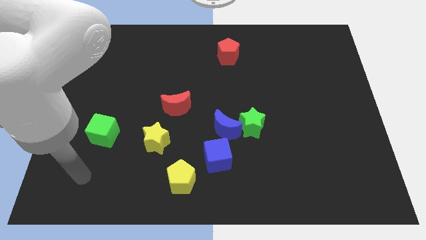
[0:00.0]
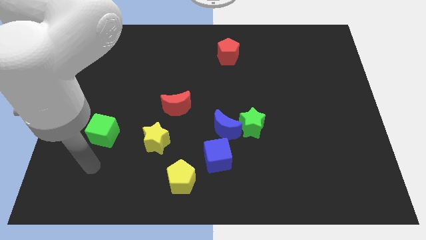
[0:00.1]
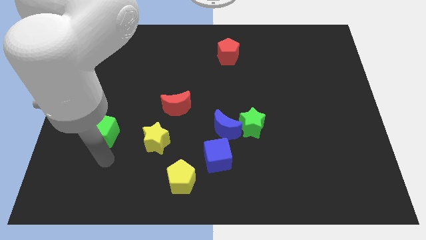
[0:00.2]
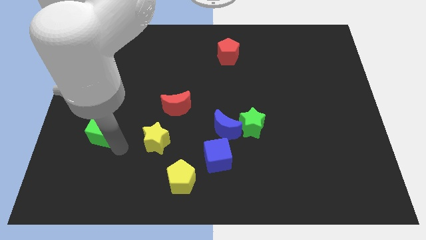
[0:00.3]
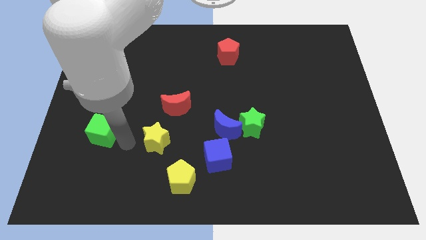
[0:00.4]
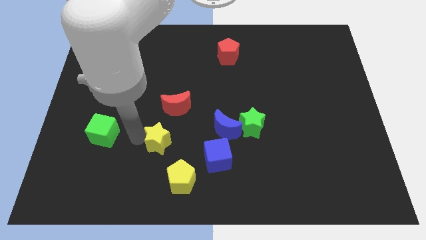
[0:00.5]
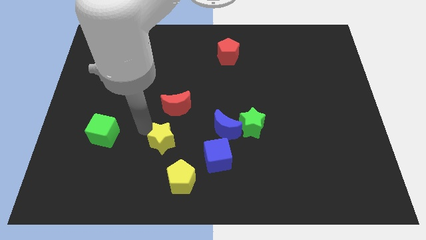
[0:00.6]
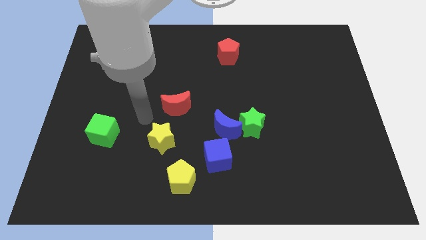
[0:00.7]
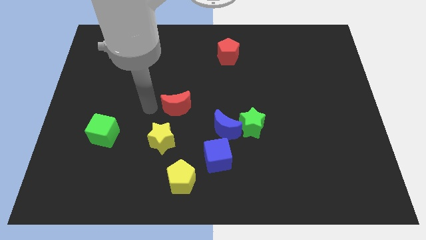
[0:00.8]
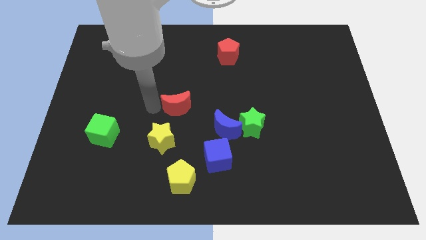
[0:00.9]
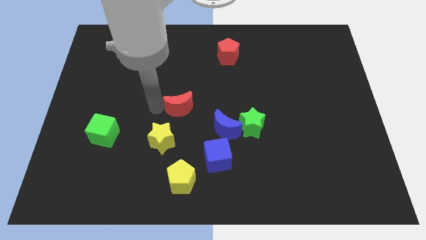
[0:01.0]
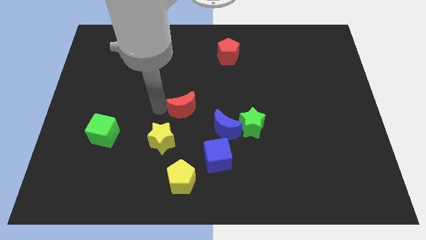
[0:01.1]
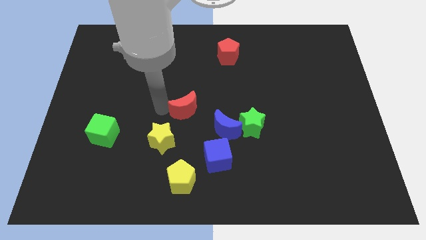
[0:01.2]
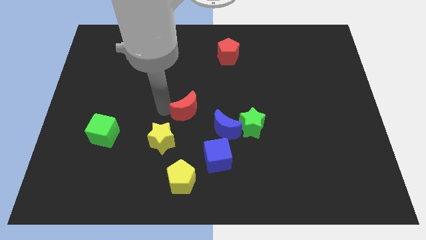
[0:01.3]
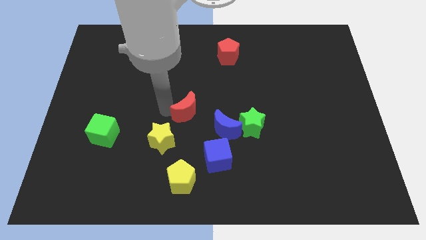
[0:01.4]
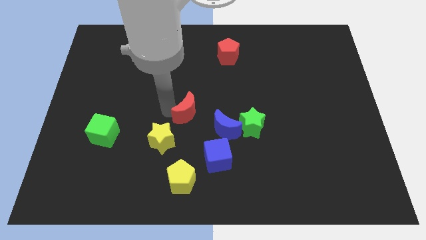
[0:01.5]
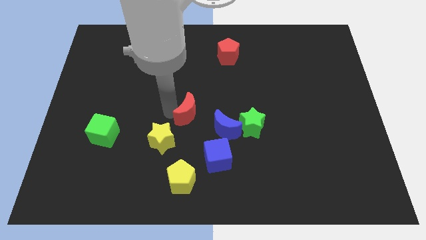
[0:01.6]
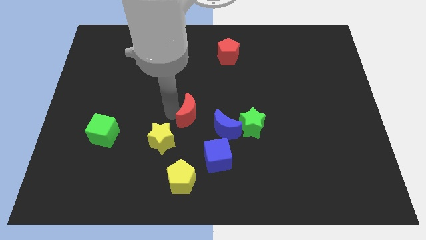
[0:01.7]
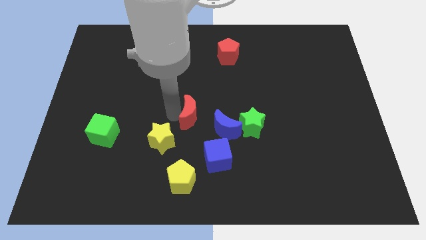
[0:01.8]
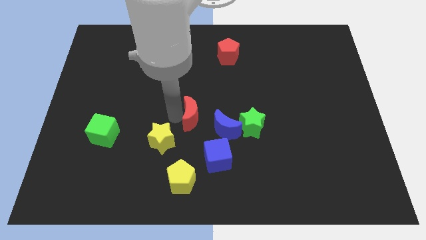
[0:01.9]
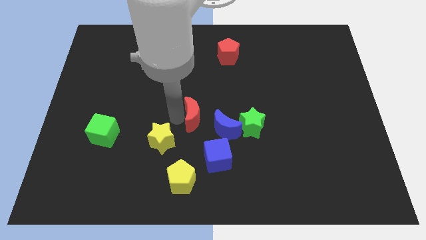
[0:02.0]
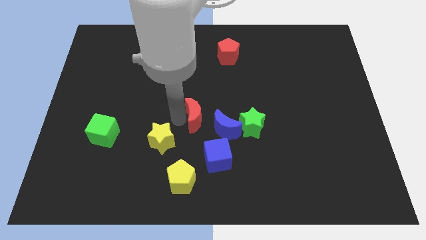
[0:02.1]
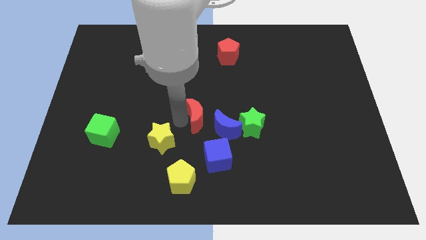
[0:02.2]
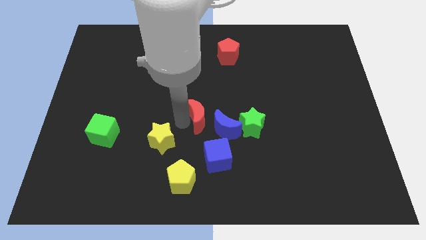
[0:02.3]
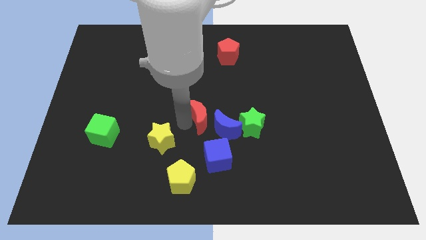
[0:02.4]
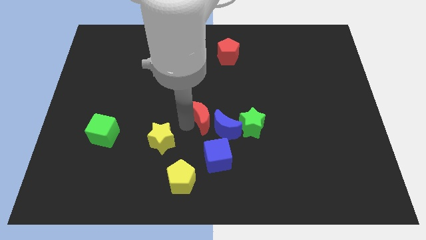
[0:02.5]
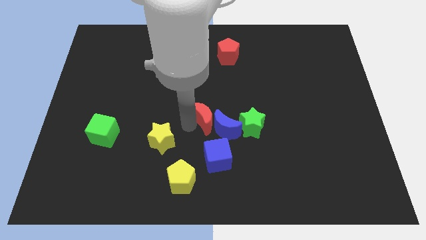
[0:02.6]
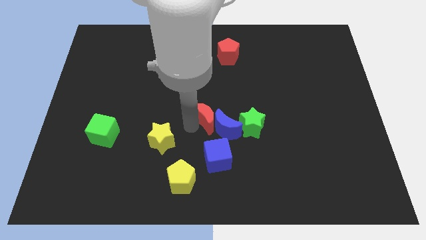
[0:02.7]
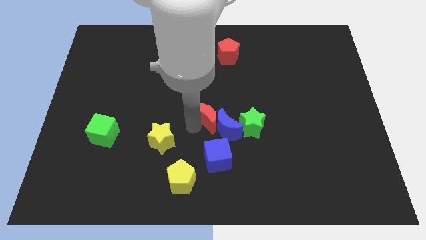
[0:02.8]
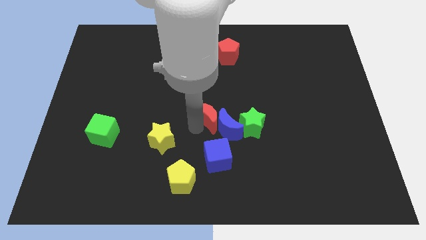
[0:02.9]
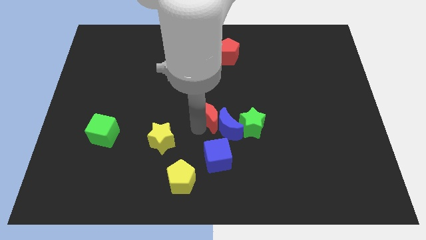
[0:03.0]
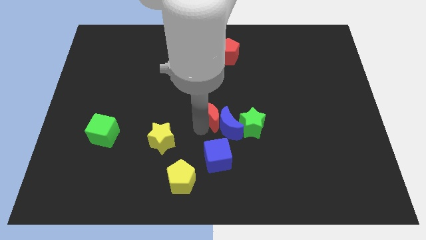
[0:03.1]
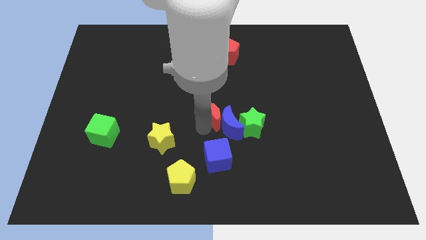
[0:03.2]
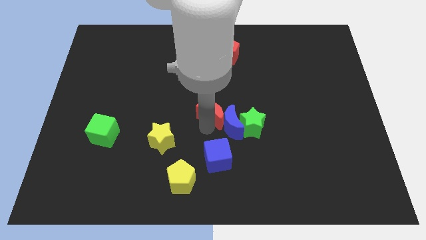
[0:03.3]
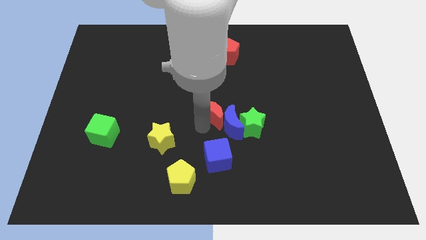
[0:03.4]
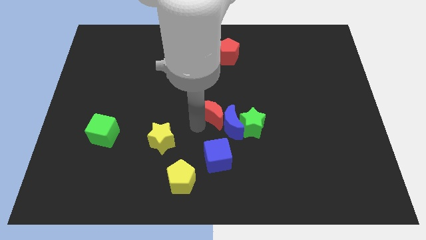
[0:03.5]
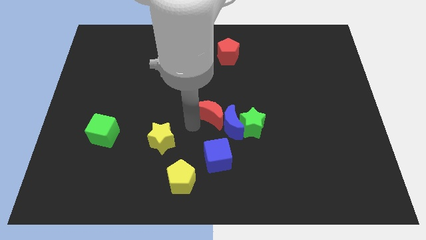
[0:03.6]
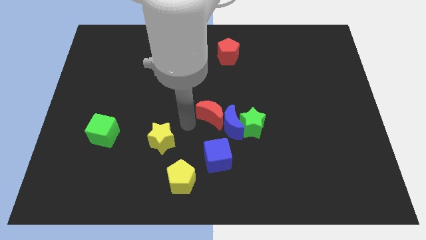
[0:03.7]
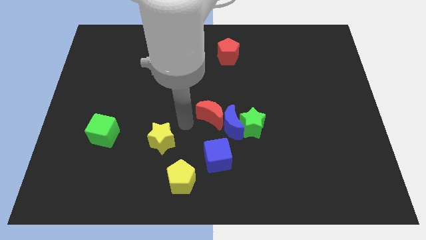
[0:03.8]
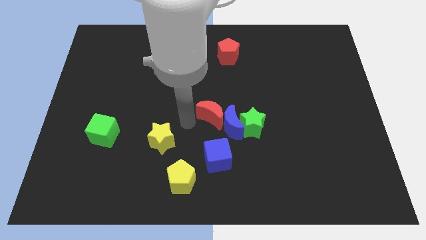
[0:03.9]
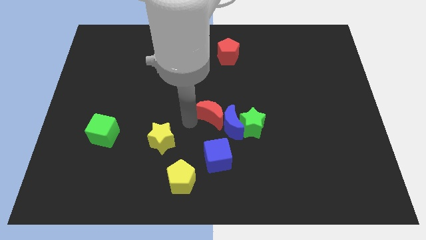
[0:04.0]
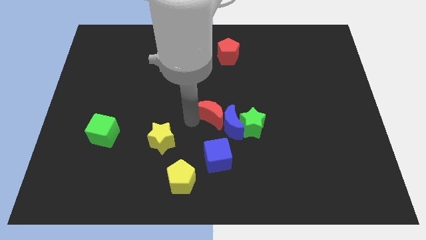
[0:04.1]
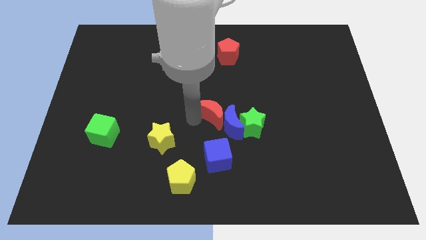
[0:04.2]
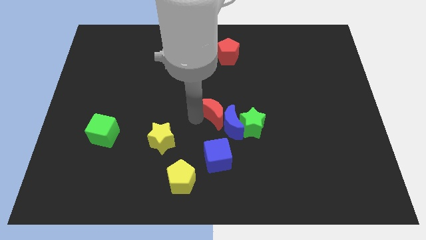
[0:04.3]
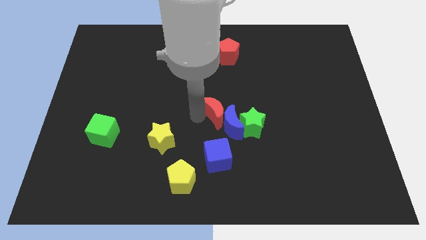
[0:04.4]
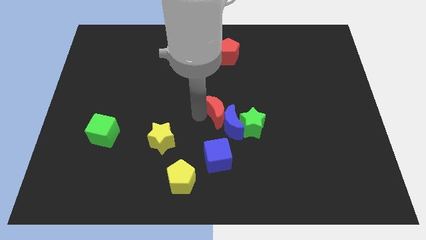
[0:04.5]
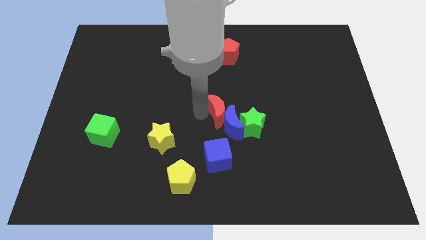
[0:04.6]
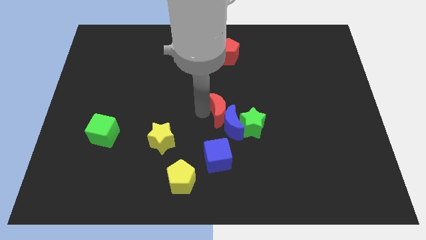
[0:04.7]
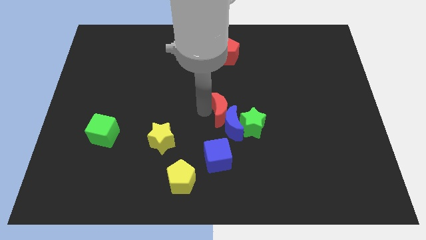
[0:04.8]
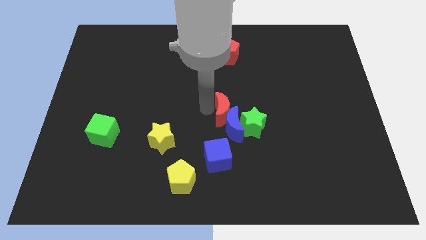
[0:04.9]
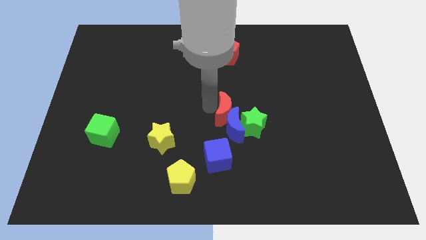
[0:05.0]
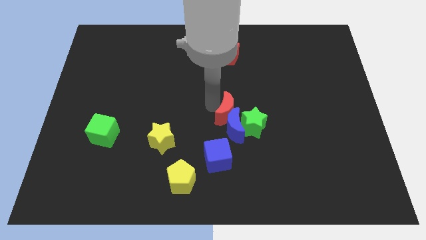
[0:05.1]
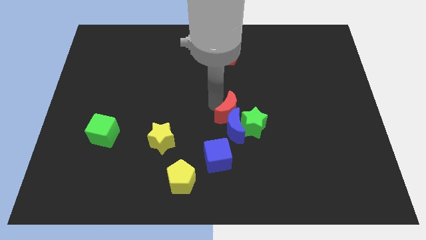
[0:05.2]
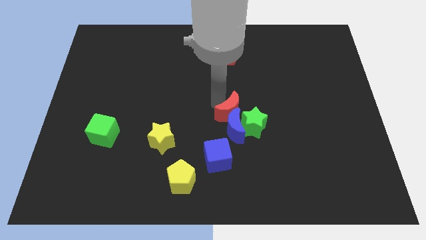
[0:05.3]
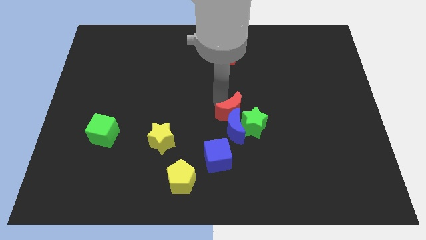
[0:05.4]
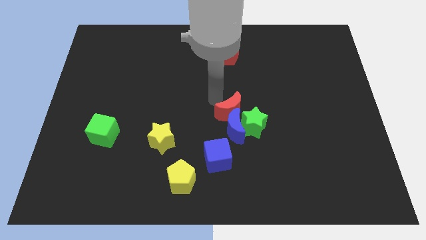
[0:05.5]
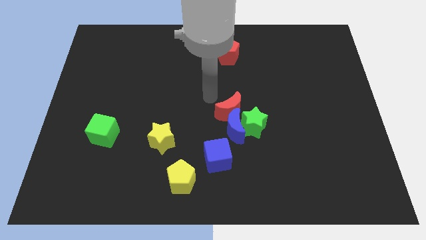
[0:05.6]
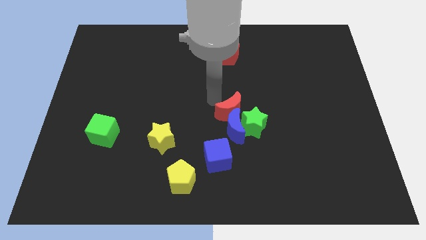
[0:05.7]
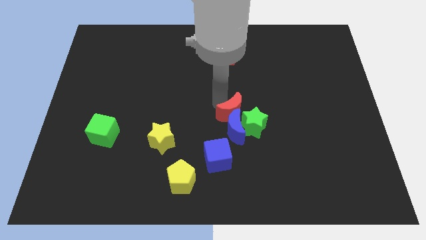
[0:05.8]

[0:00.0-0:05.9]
move the red moon to the green star

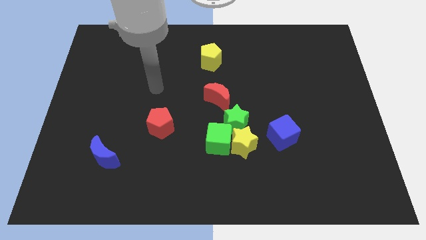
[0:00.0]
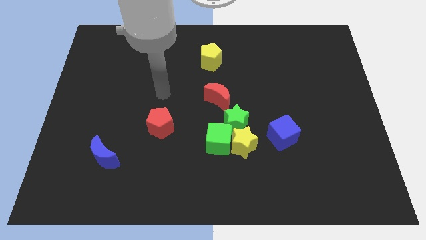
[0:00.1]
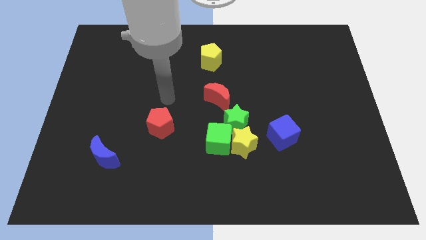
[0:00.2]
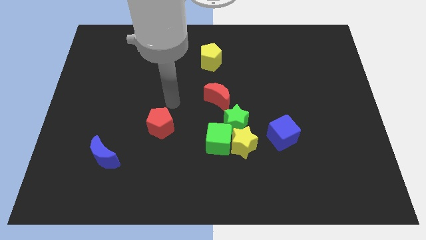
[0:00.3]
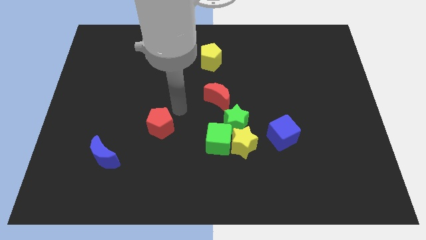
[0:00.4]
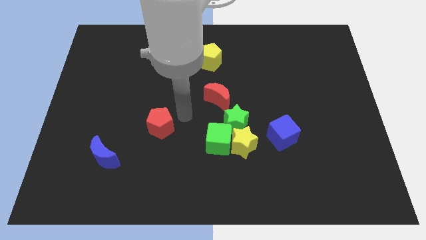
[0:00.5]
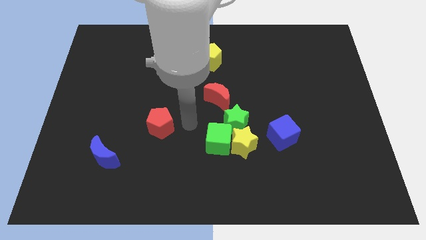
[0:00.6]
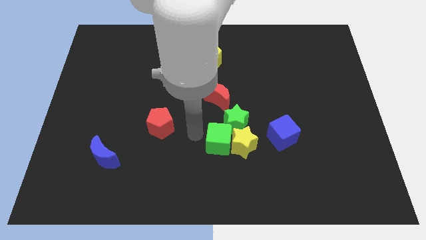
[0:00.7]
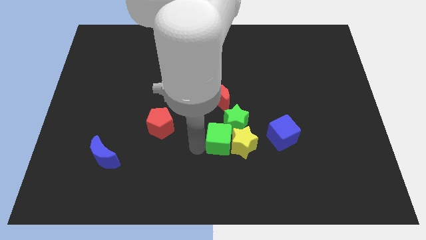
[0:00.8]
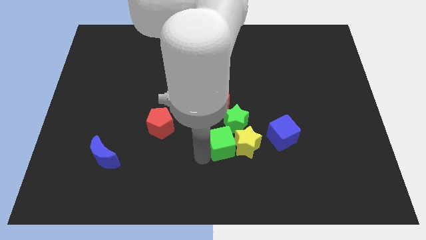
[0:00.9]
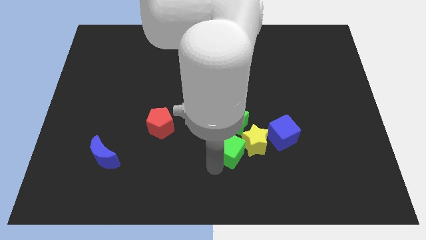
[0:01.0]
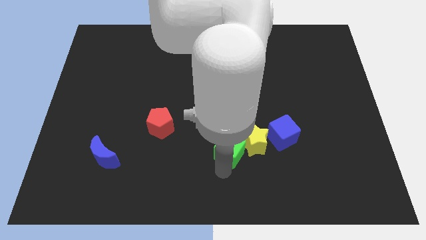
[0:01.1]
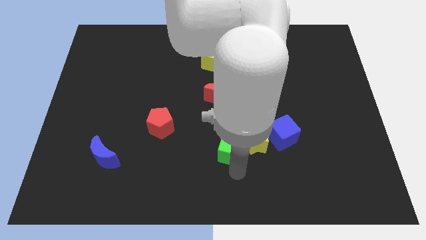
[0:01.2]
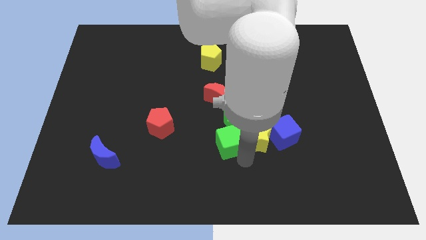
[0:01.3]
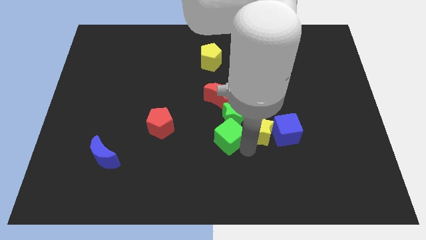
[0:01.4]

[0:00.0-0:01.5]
put the green star towards the red moon
